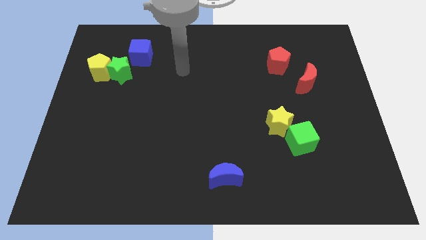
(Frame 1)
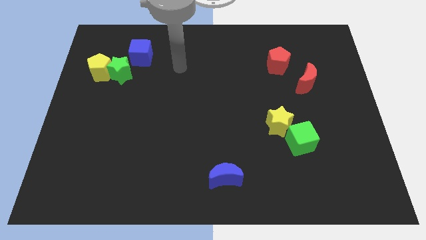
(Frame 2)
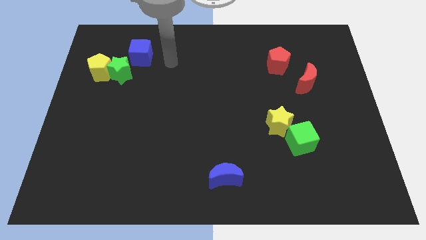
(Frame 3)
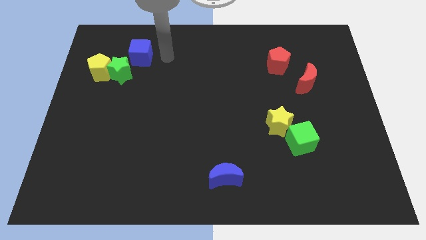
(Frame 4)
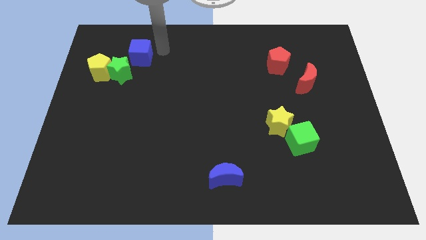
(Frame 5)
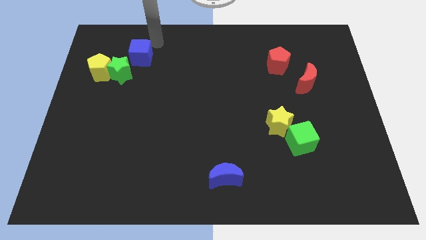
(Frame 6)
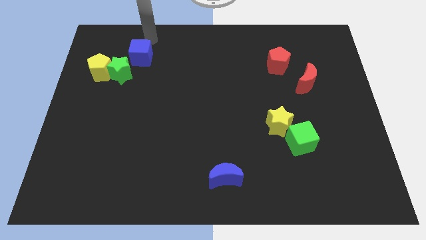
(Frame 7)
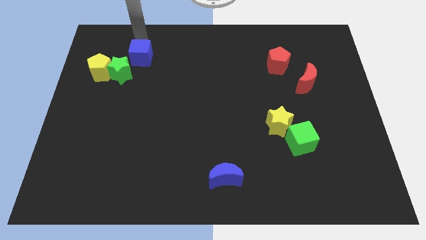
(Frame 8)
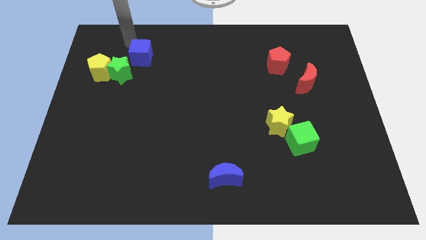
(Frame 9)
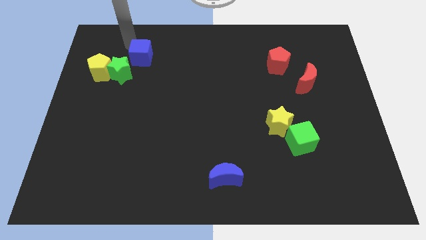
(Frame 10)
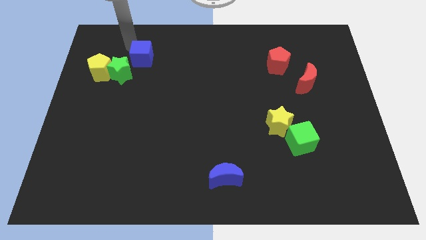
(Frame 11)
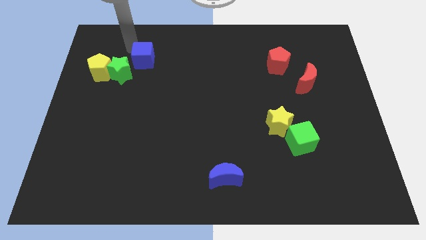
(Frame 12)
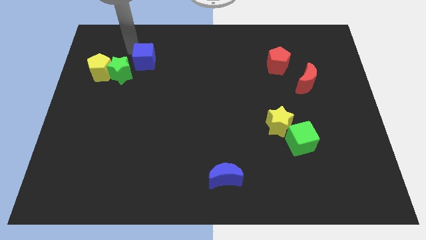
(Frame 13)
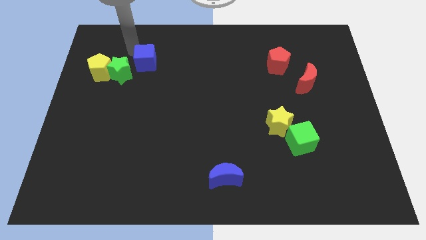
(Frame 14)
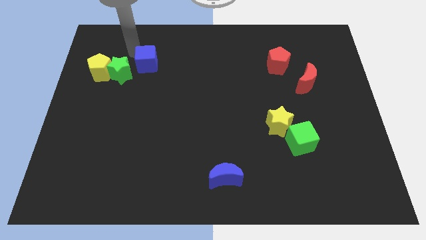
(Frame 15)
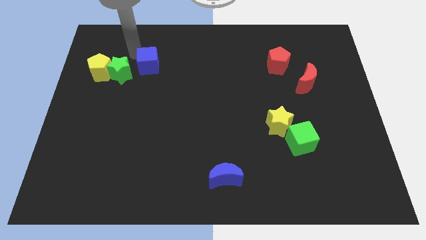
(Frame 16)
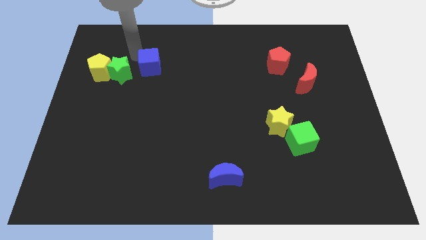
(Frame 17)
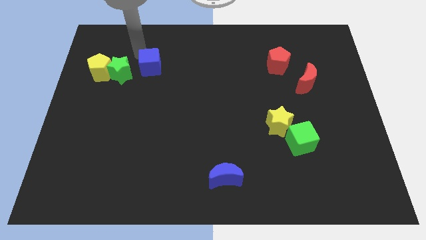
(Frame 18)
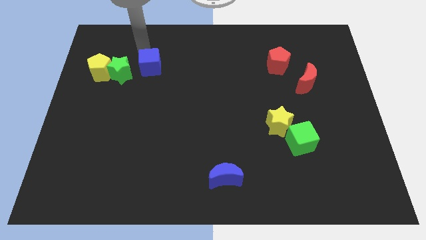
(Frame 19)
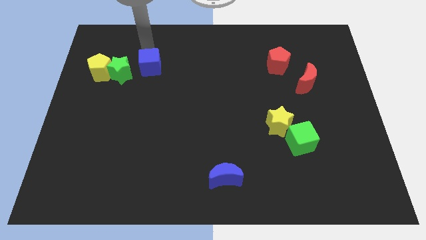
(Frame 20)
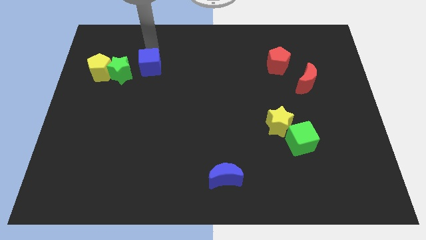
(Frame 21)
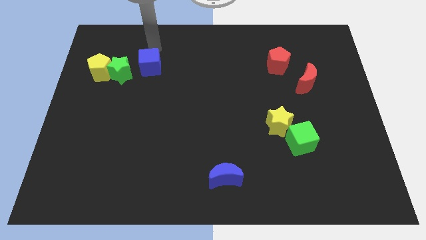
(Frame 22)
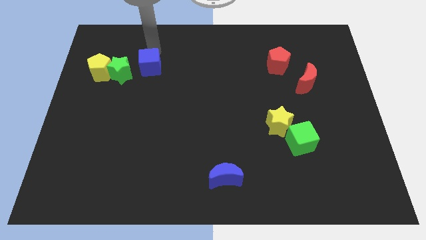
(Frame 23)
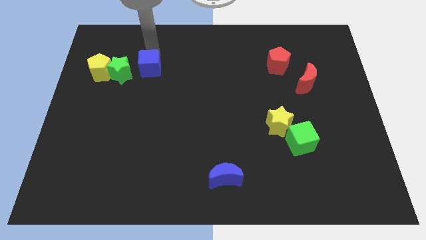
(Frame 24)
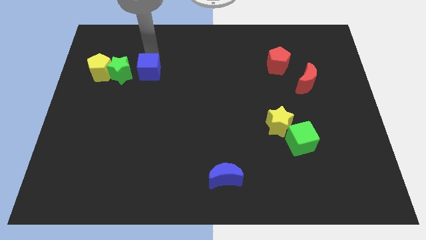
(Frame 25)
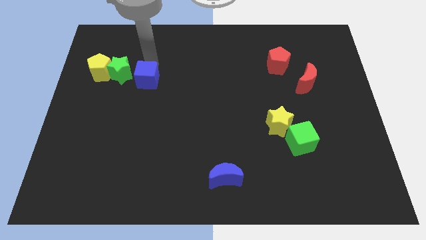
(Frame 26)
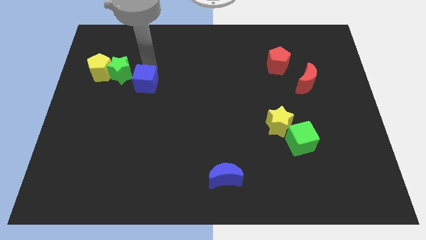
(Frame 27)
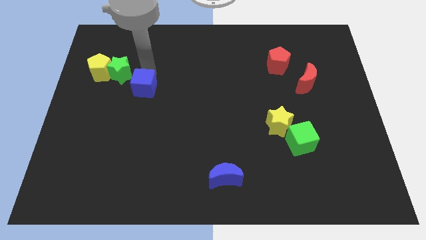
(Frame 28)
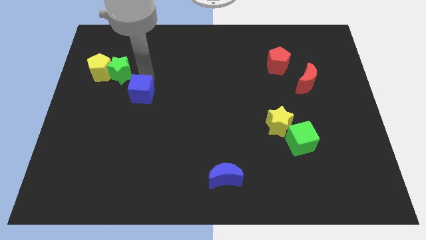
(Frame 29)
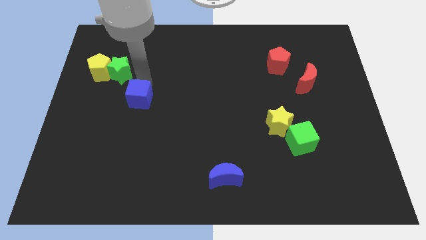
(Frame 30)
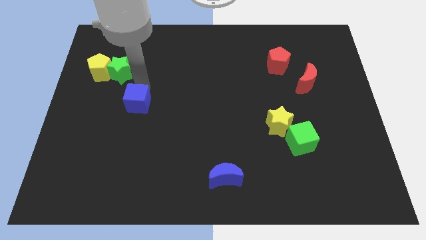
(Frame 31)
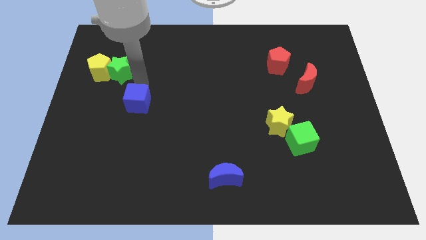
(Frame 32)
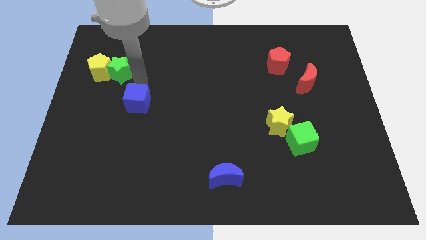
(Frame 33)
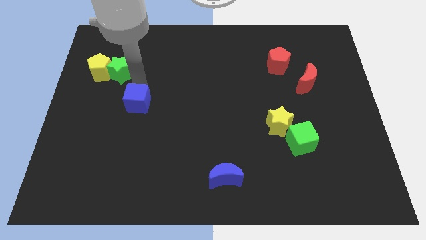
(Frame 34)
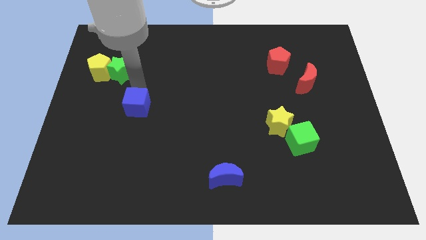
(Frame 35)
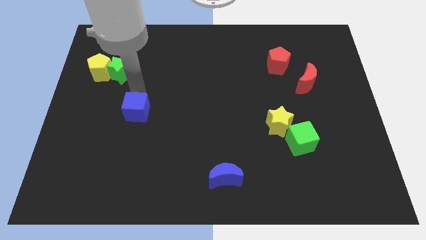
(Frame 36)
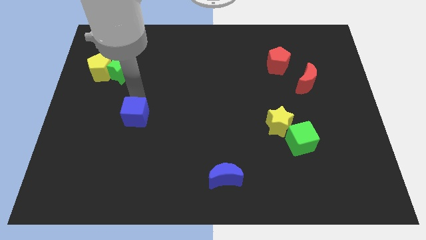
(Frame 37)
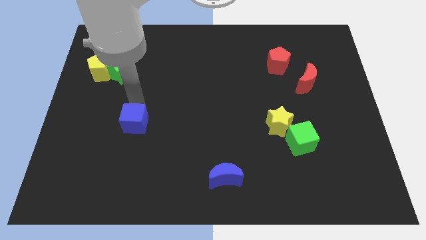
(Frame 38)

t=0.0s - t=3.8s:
slide the blue cube down

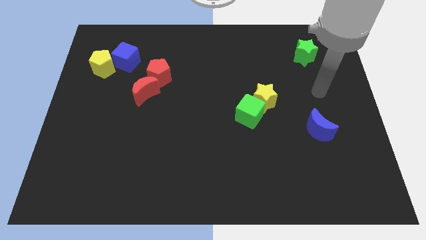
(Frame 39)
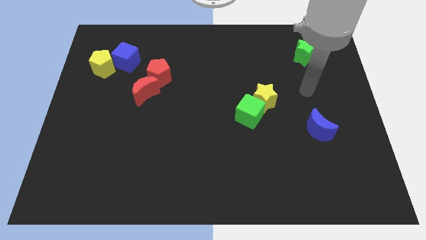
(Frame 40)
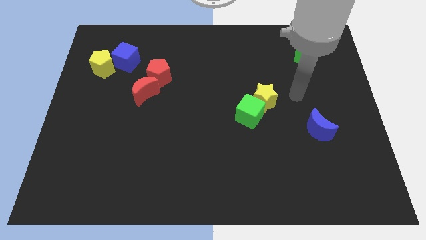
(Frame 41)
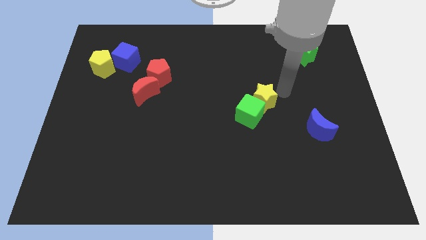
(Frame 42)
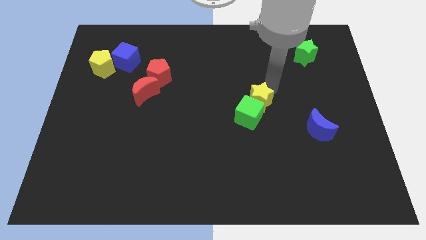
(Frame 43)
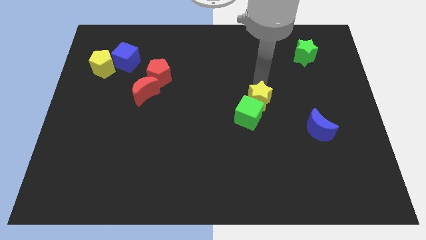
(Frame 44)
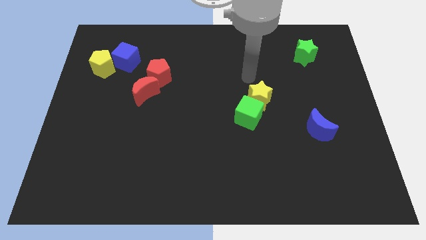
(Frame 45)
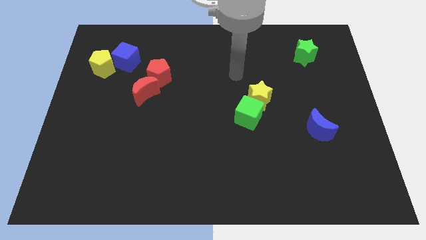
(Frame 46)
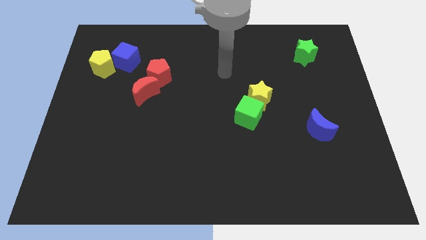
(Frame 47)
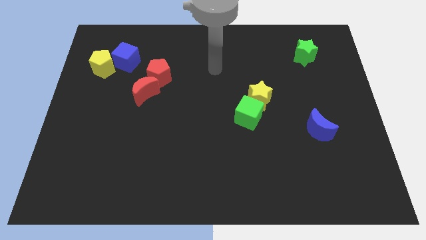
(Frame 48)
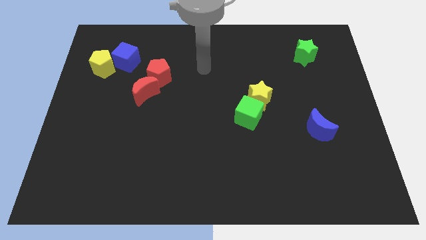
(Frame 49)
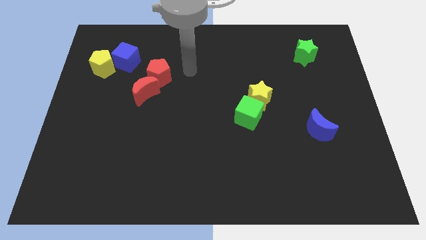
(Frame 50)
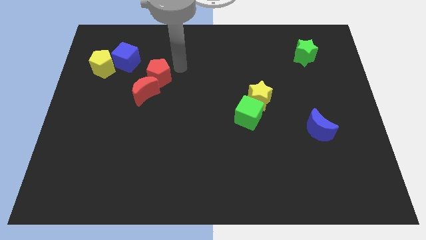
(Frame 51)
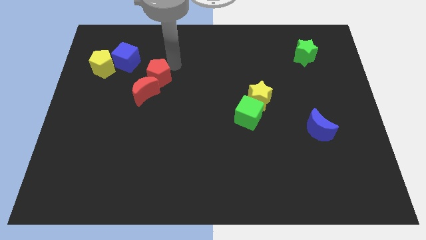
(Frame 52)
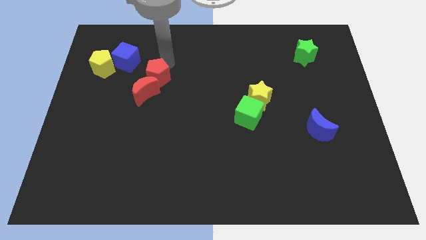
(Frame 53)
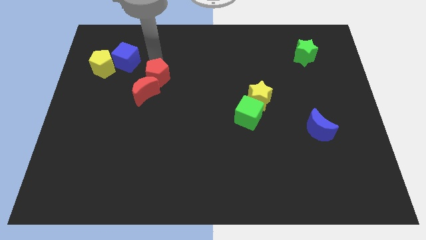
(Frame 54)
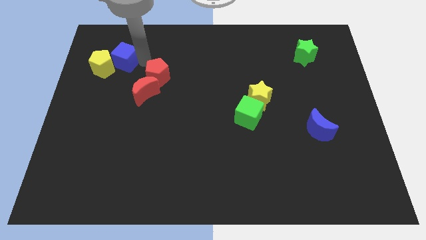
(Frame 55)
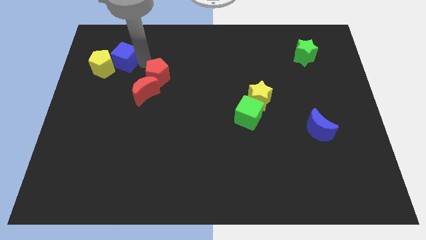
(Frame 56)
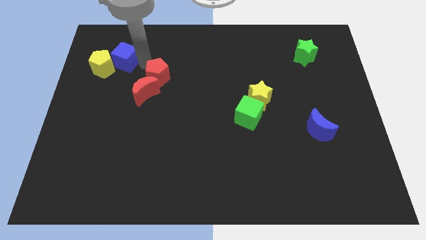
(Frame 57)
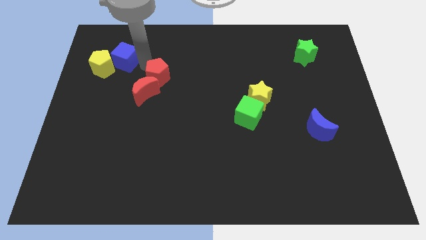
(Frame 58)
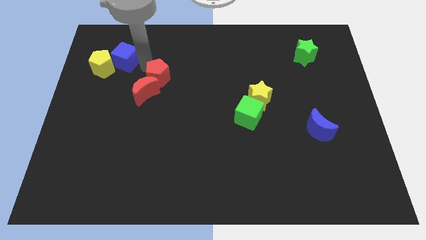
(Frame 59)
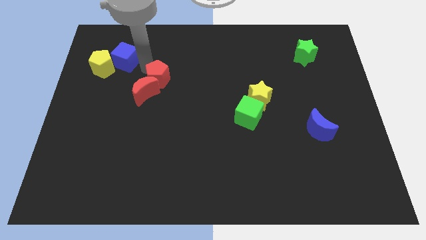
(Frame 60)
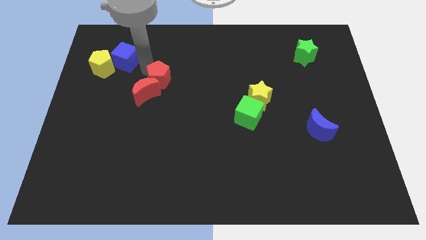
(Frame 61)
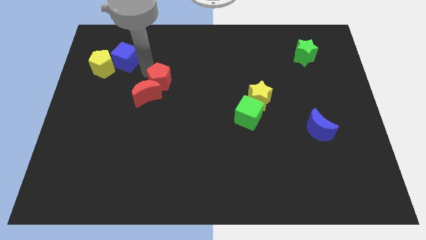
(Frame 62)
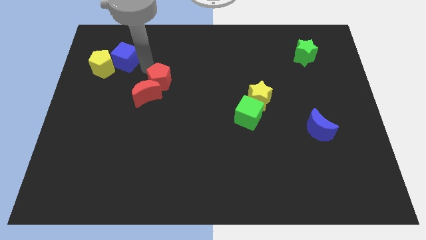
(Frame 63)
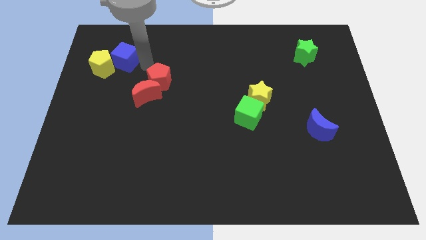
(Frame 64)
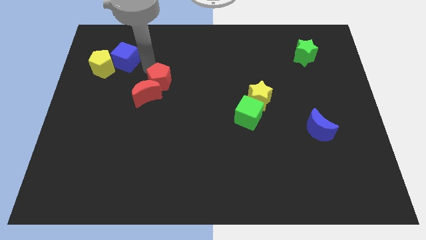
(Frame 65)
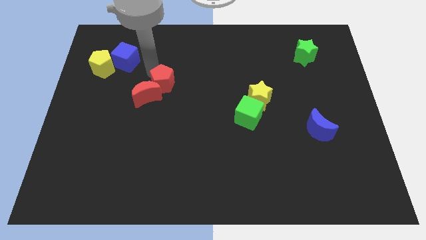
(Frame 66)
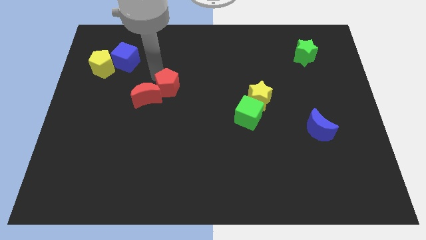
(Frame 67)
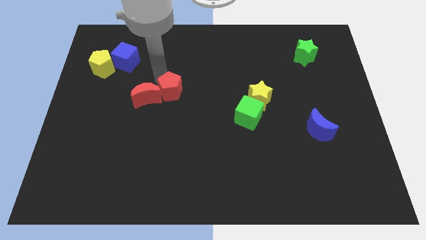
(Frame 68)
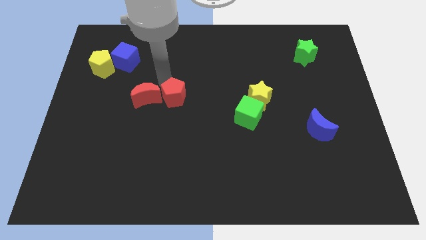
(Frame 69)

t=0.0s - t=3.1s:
push the red pentagon downwards and right diagonally a bit

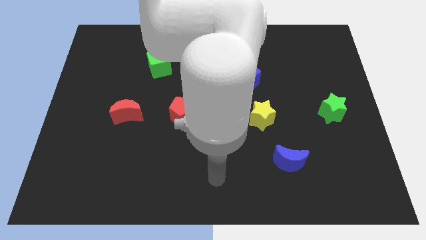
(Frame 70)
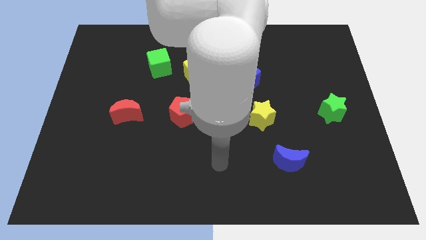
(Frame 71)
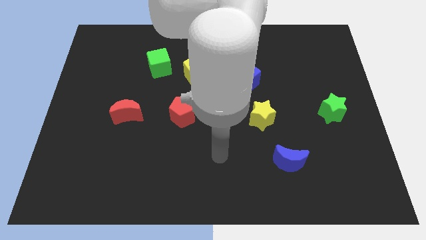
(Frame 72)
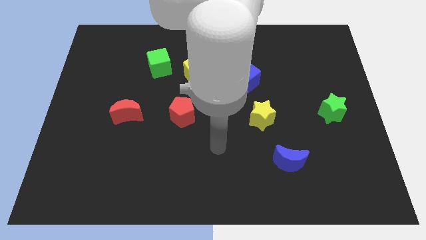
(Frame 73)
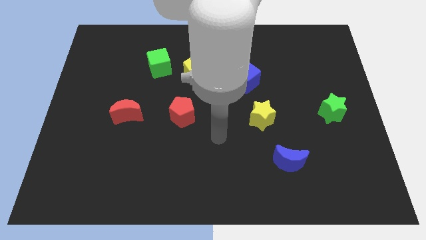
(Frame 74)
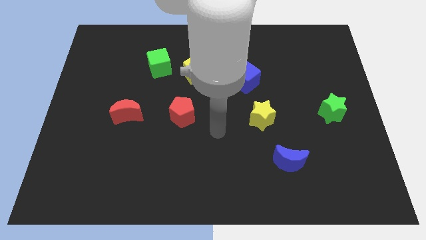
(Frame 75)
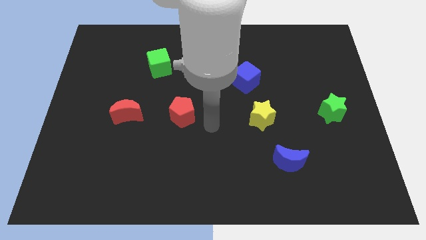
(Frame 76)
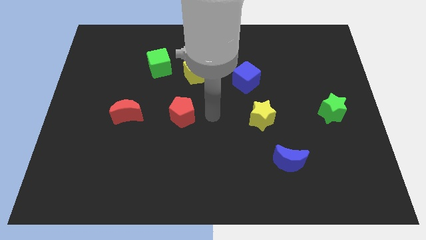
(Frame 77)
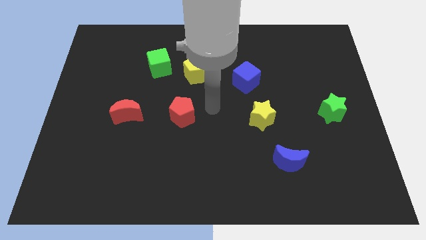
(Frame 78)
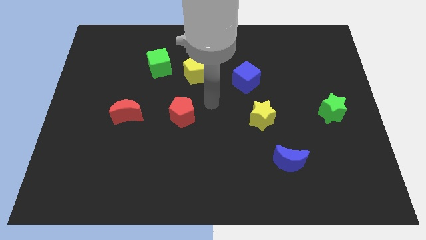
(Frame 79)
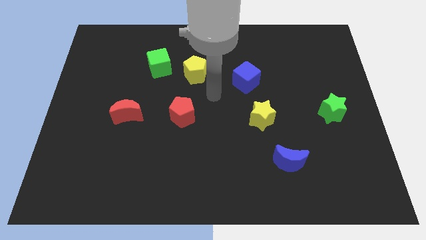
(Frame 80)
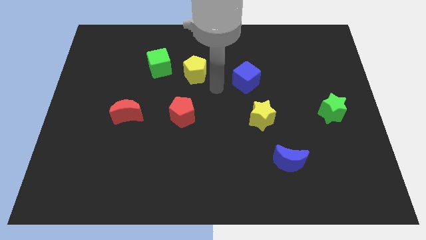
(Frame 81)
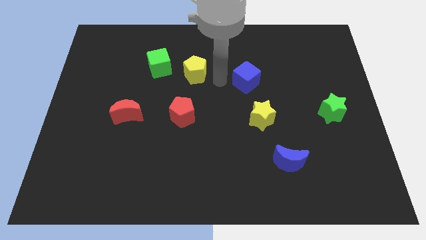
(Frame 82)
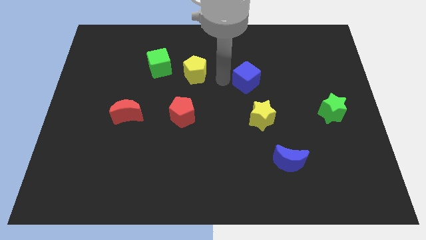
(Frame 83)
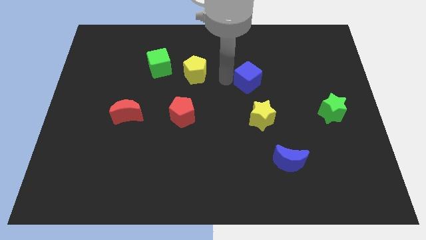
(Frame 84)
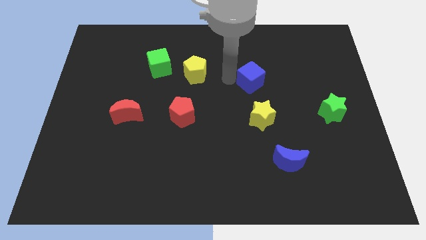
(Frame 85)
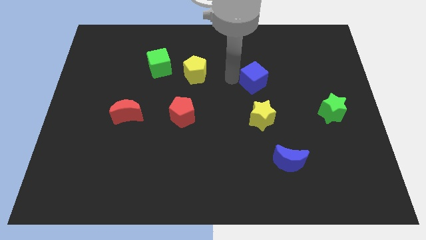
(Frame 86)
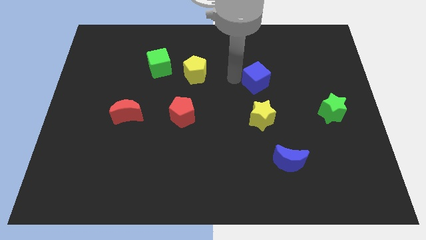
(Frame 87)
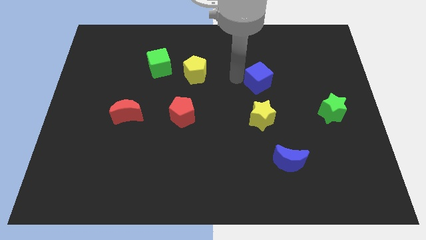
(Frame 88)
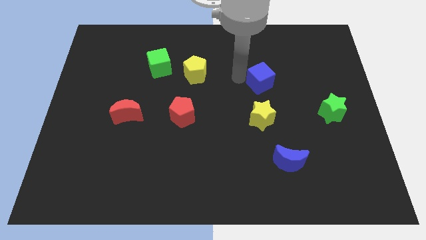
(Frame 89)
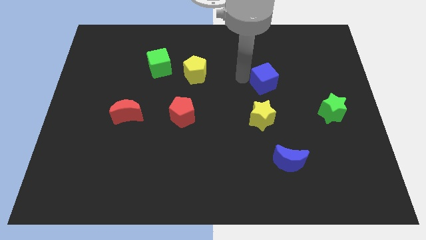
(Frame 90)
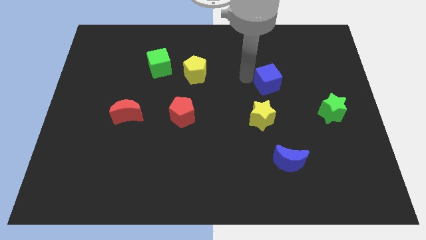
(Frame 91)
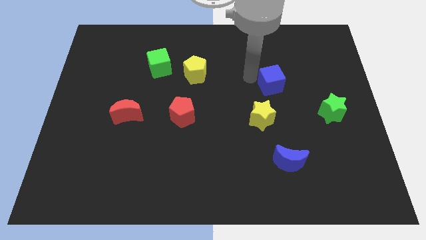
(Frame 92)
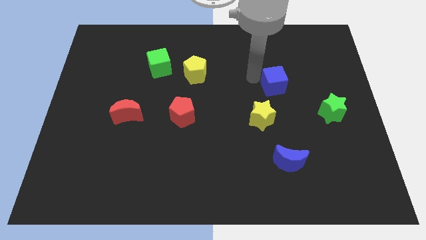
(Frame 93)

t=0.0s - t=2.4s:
slightly push the blue cube to the right
